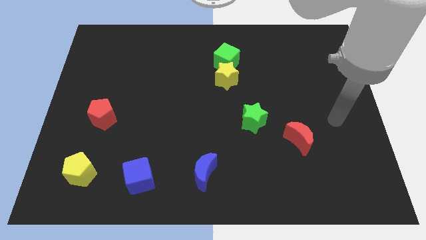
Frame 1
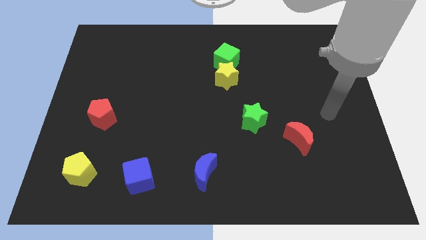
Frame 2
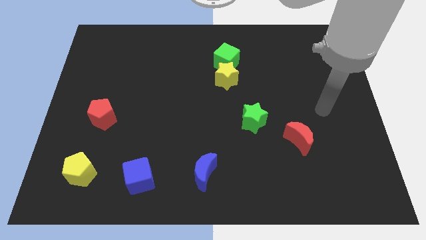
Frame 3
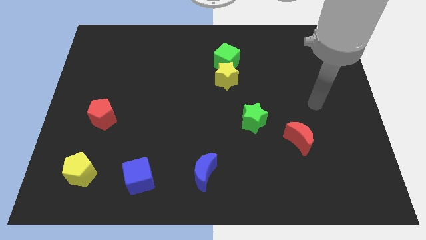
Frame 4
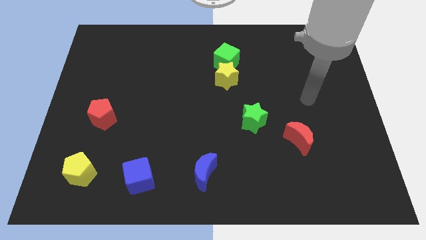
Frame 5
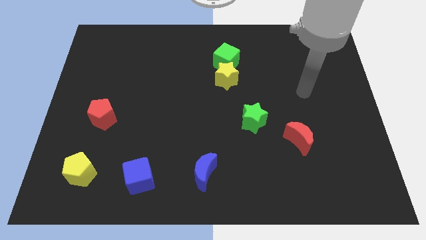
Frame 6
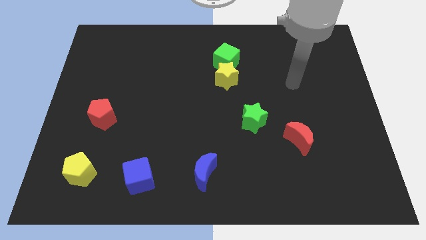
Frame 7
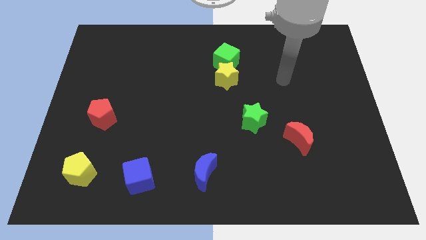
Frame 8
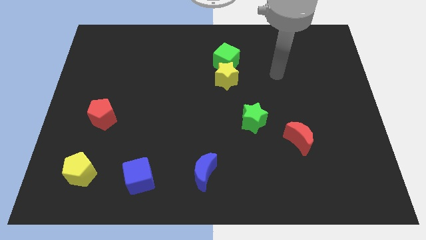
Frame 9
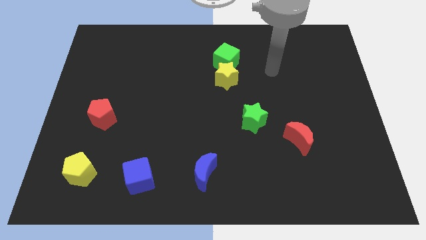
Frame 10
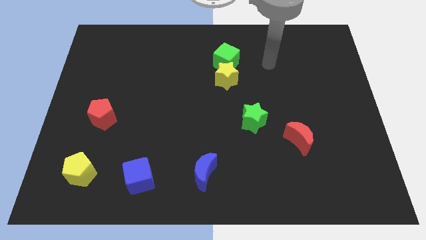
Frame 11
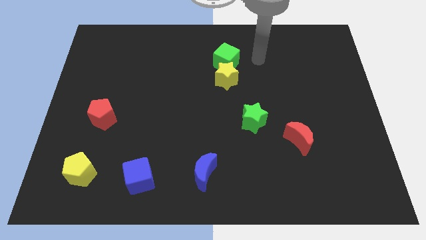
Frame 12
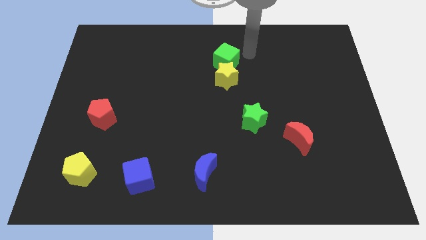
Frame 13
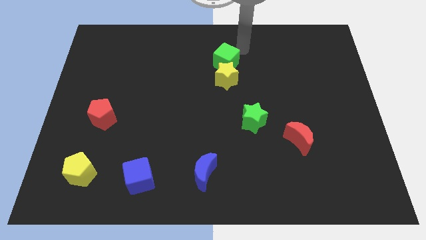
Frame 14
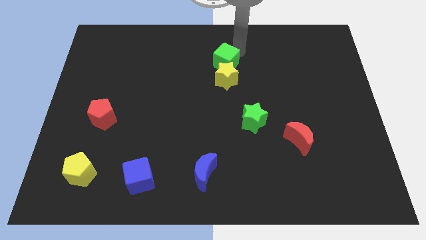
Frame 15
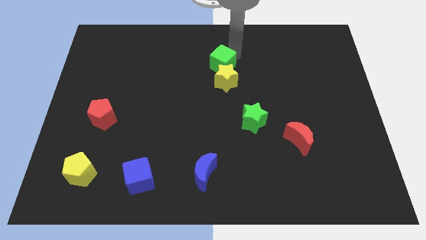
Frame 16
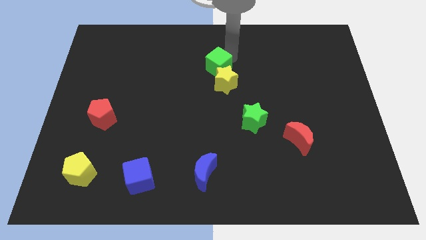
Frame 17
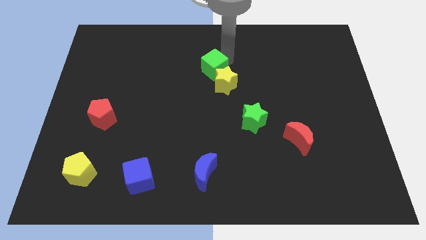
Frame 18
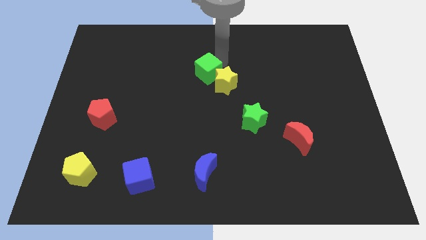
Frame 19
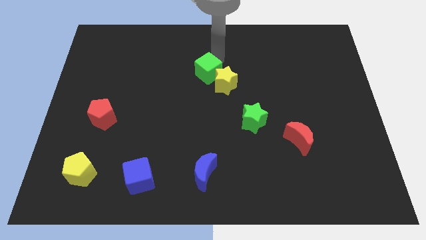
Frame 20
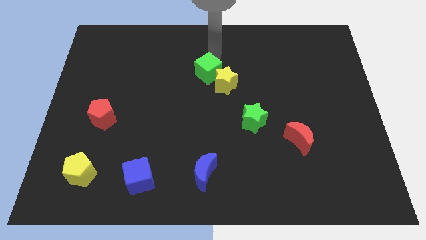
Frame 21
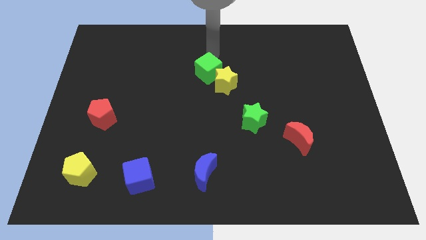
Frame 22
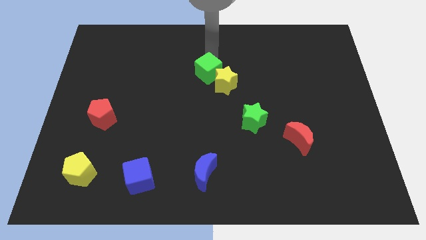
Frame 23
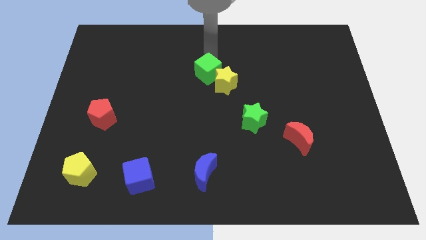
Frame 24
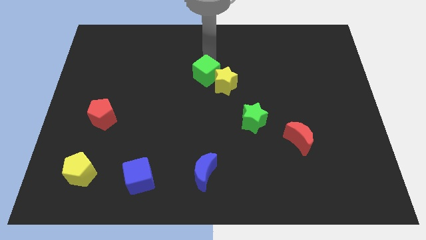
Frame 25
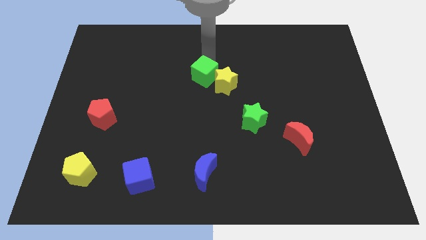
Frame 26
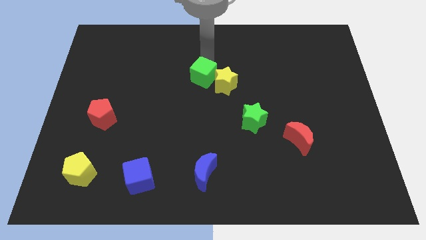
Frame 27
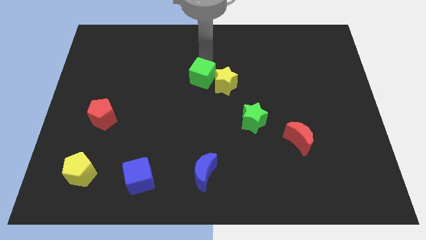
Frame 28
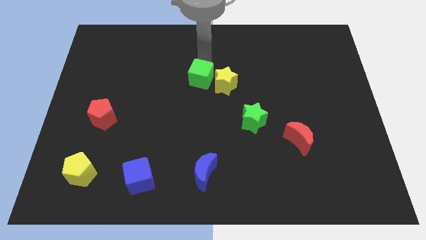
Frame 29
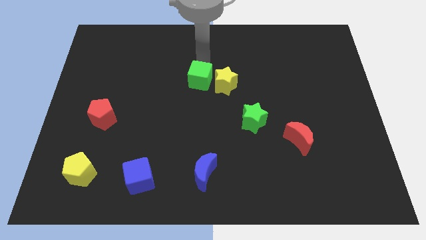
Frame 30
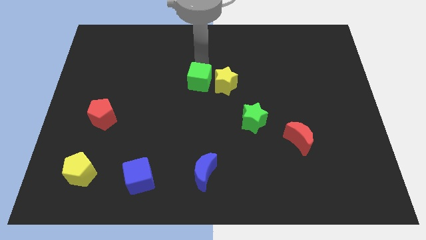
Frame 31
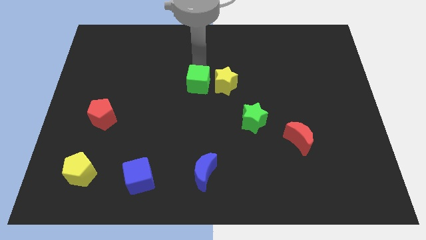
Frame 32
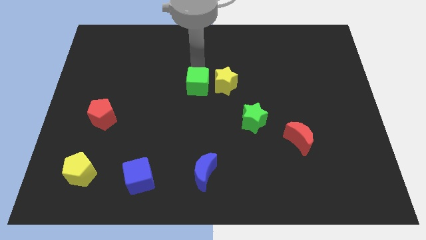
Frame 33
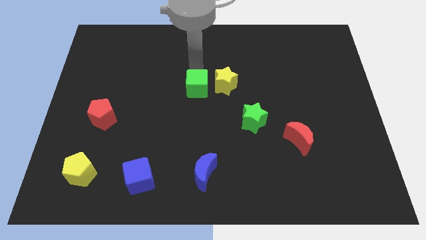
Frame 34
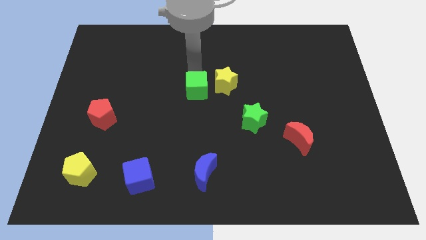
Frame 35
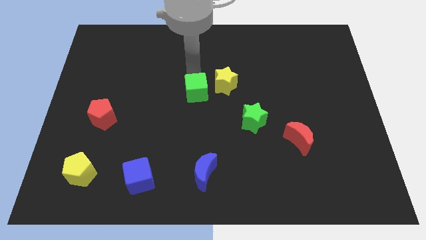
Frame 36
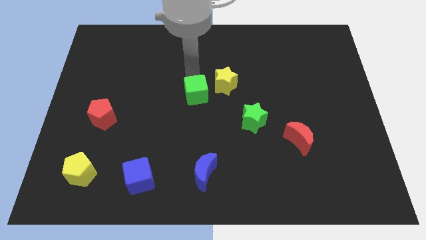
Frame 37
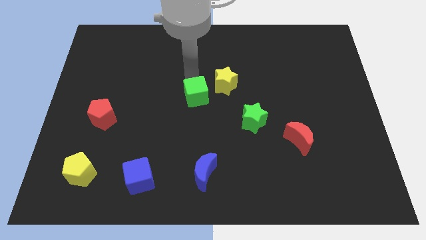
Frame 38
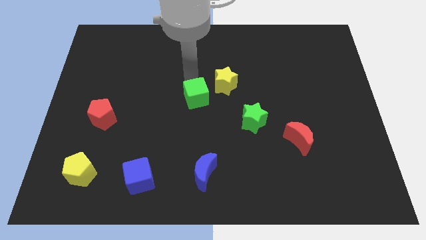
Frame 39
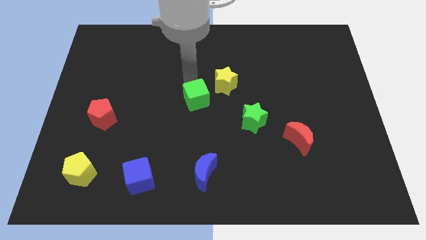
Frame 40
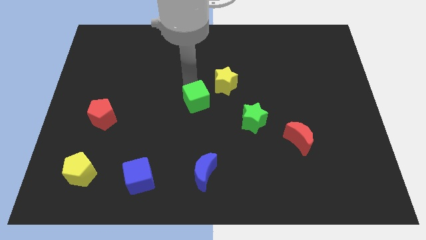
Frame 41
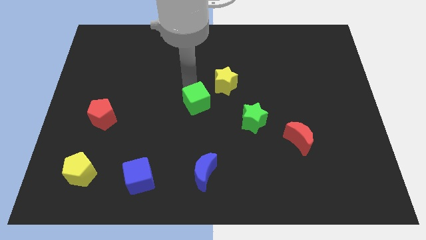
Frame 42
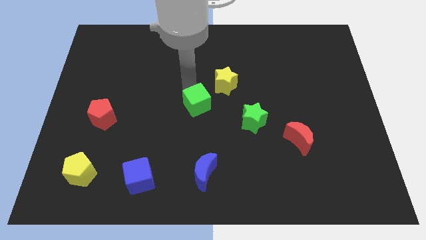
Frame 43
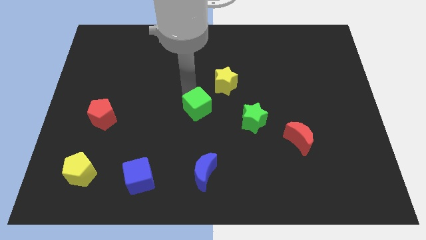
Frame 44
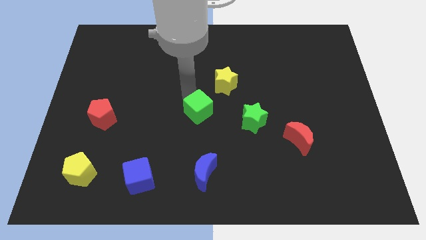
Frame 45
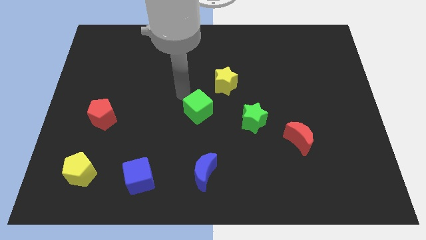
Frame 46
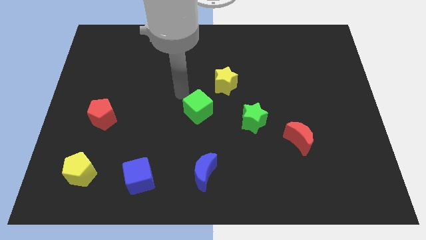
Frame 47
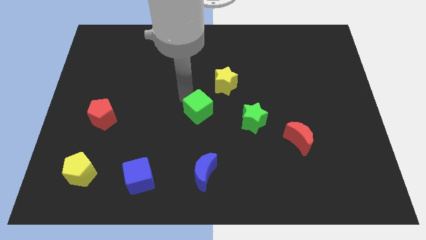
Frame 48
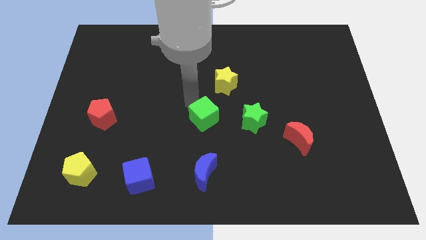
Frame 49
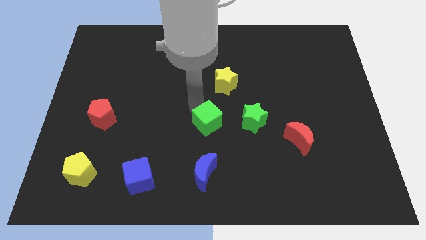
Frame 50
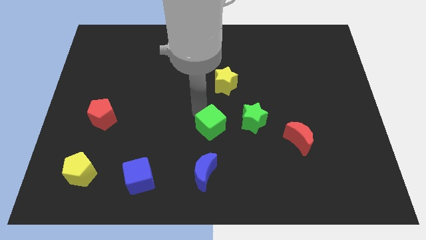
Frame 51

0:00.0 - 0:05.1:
slide the green cube down

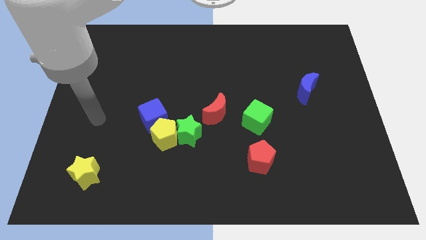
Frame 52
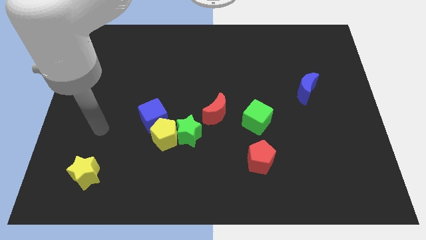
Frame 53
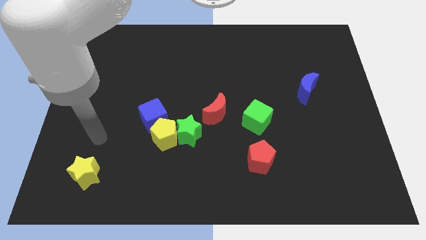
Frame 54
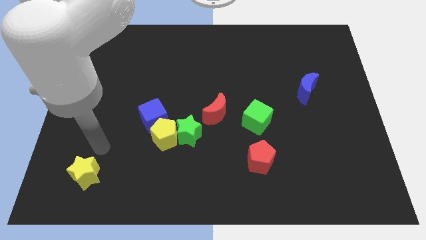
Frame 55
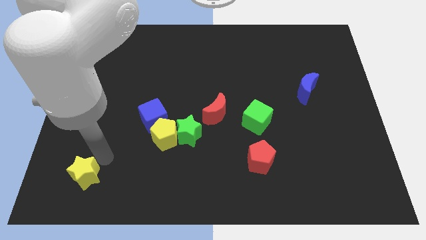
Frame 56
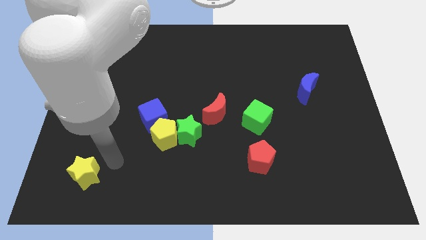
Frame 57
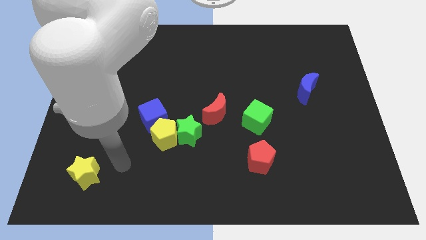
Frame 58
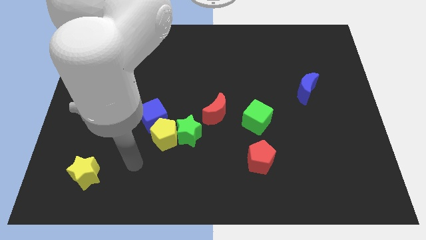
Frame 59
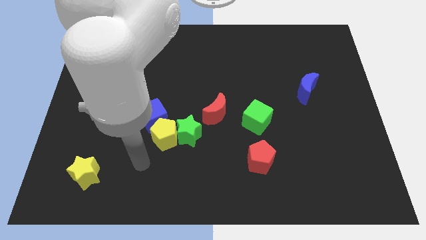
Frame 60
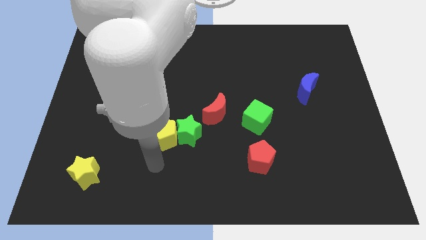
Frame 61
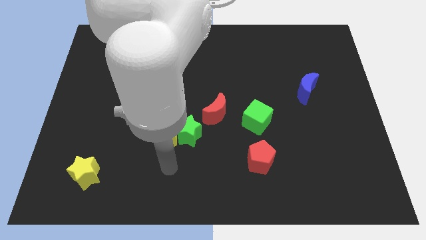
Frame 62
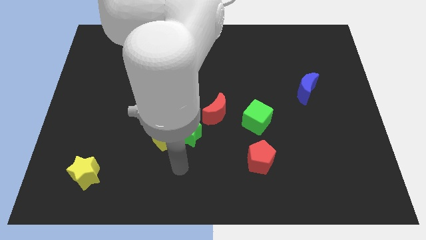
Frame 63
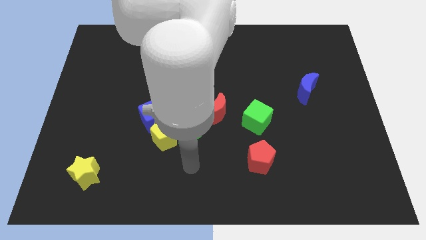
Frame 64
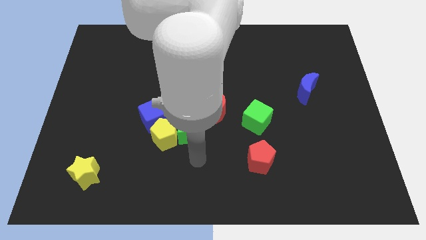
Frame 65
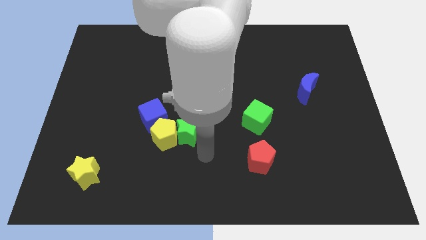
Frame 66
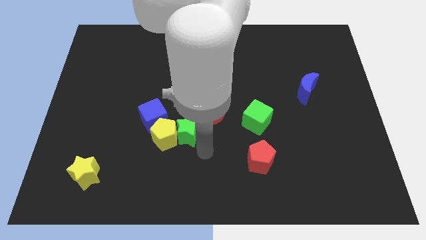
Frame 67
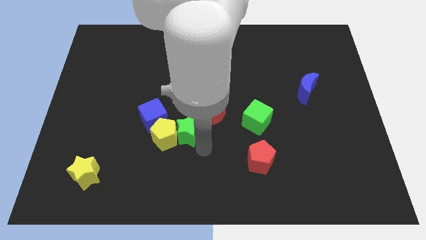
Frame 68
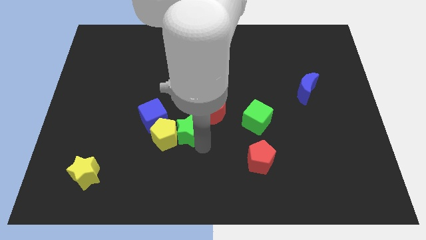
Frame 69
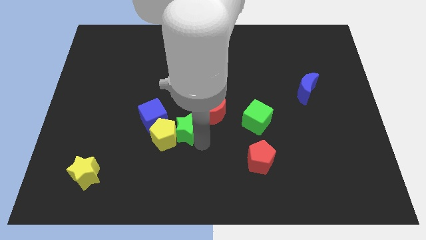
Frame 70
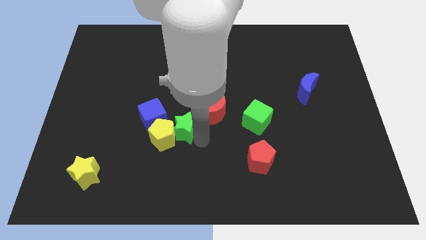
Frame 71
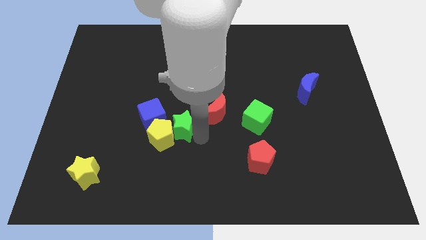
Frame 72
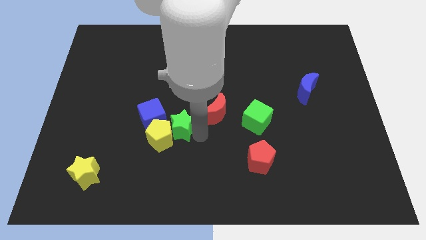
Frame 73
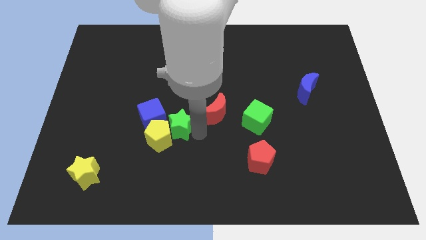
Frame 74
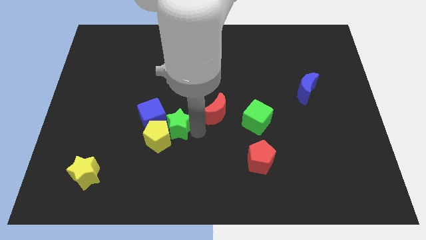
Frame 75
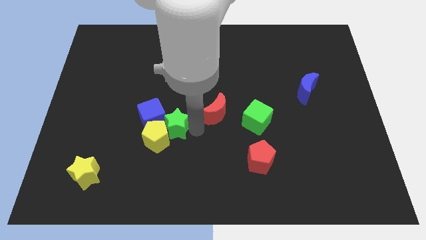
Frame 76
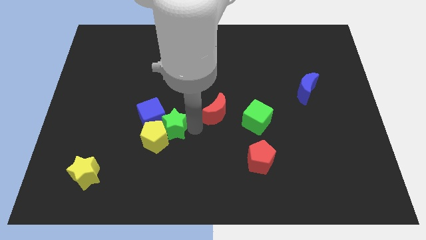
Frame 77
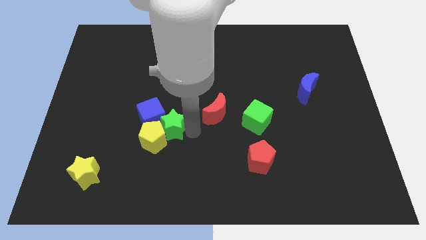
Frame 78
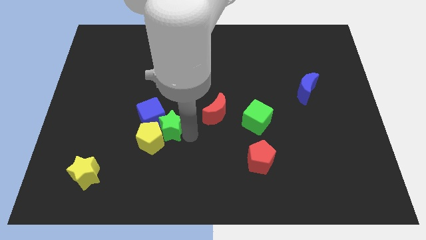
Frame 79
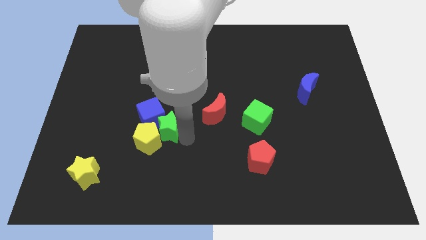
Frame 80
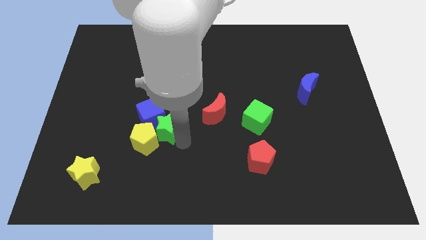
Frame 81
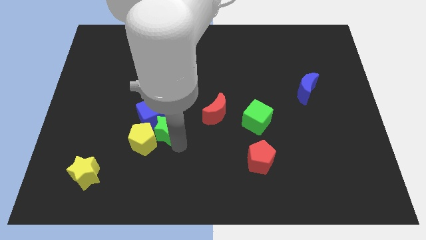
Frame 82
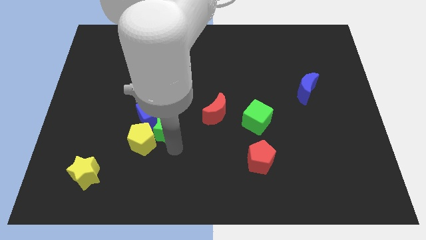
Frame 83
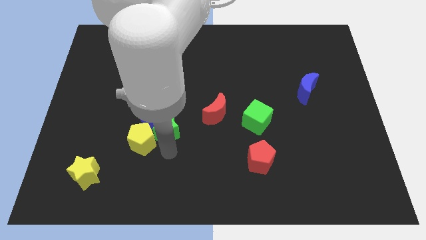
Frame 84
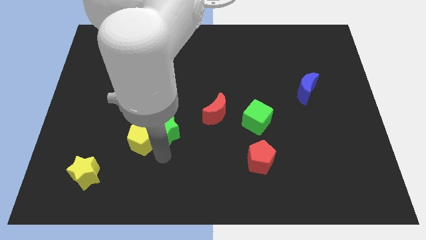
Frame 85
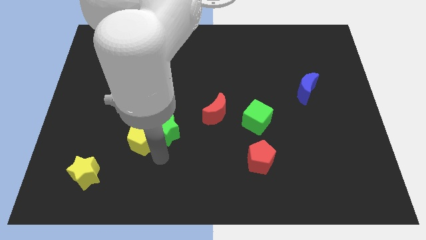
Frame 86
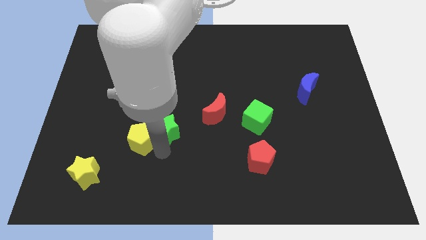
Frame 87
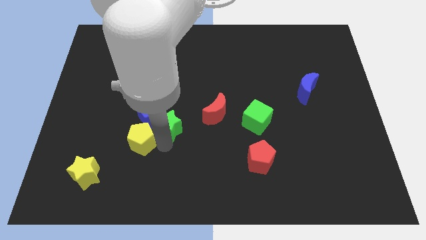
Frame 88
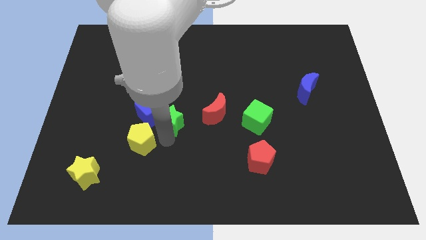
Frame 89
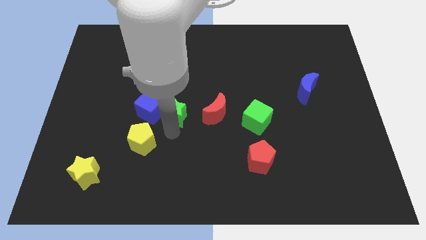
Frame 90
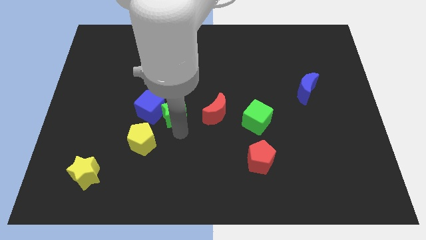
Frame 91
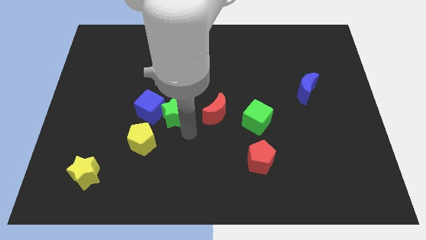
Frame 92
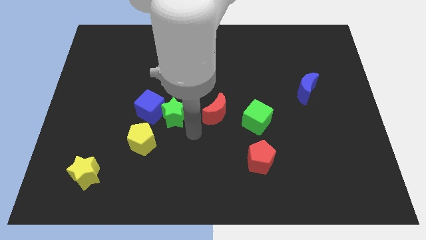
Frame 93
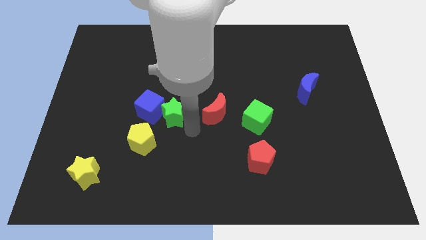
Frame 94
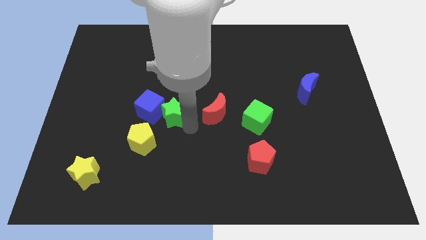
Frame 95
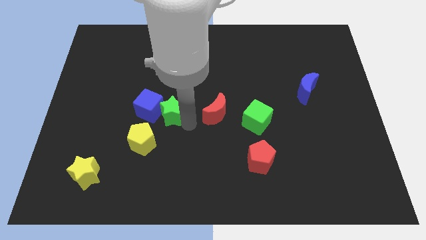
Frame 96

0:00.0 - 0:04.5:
slide the green star slightly up and to the left
